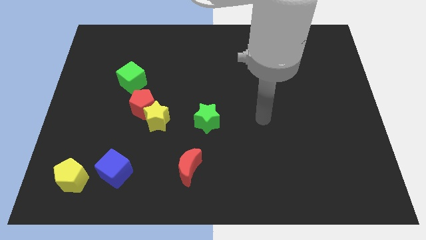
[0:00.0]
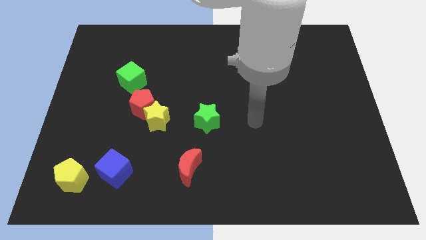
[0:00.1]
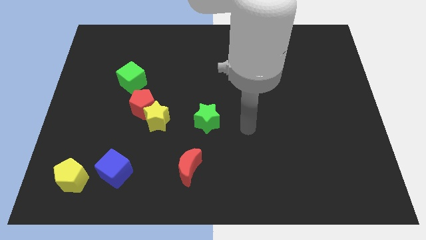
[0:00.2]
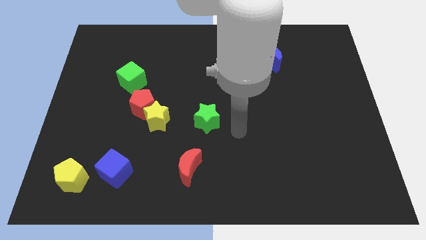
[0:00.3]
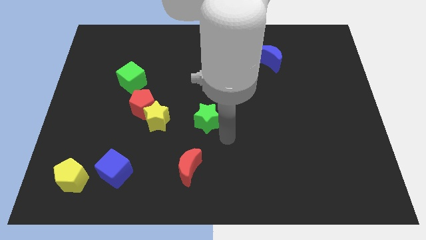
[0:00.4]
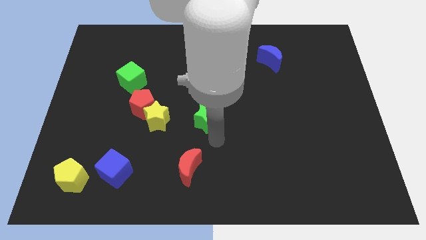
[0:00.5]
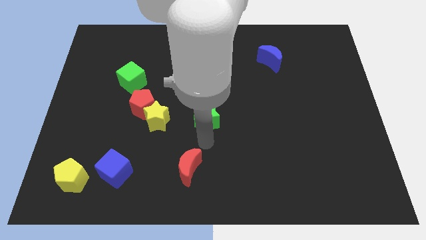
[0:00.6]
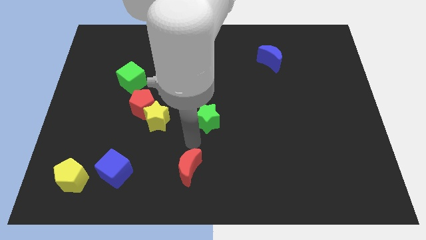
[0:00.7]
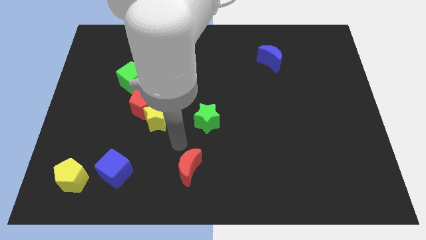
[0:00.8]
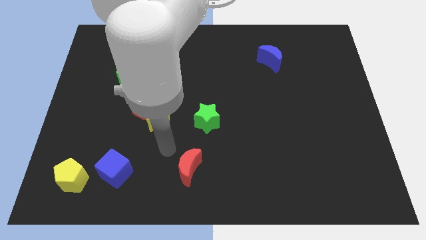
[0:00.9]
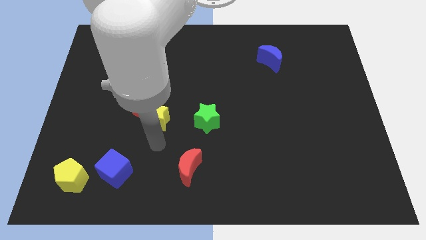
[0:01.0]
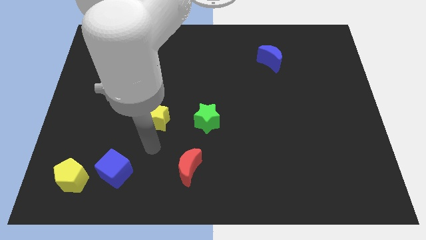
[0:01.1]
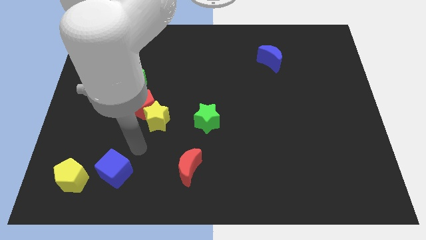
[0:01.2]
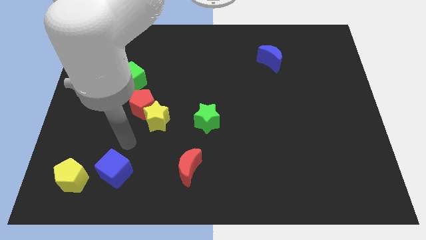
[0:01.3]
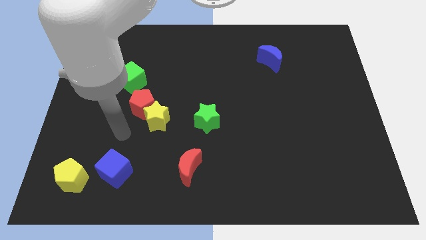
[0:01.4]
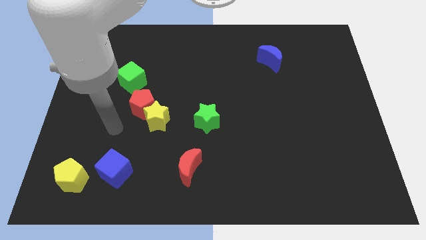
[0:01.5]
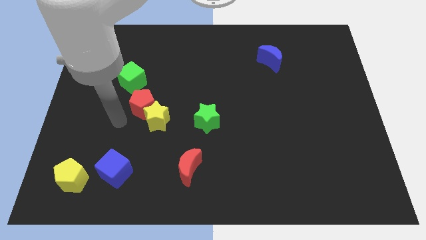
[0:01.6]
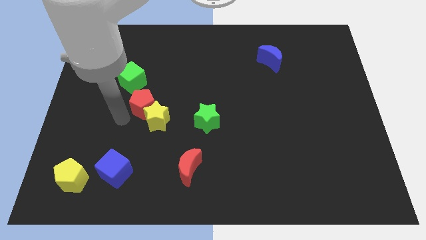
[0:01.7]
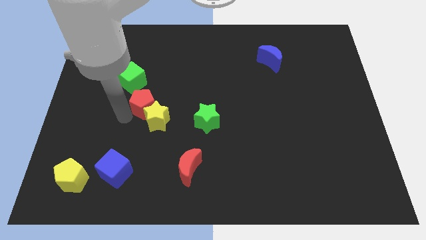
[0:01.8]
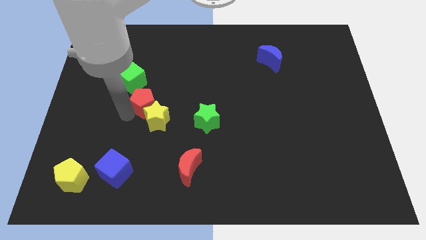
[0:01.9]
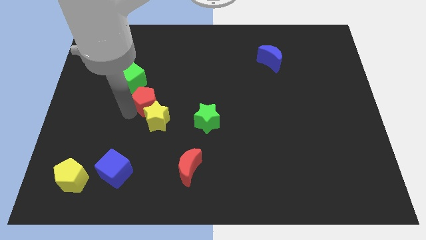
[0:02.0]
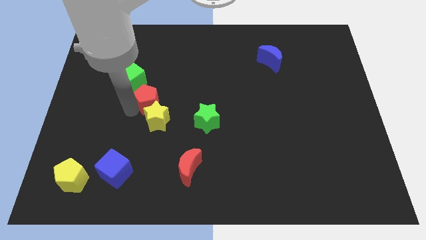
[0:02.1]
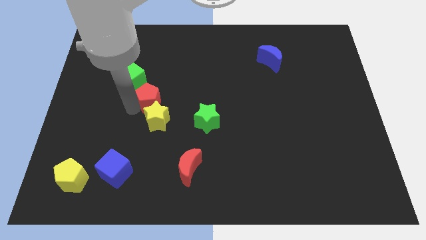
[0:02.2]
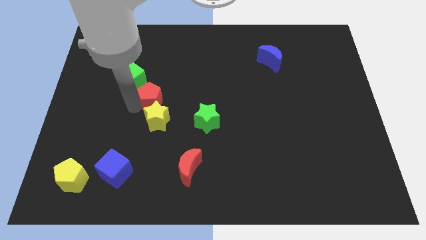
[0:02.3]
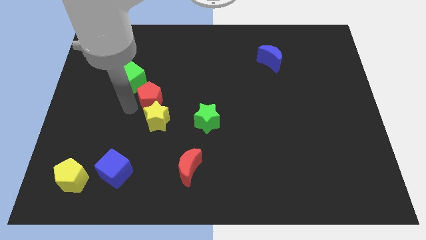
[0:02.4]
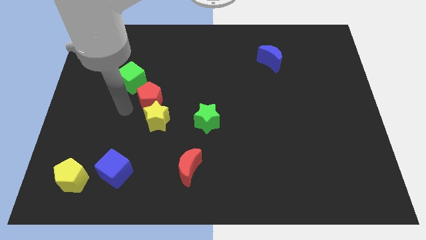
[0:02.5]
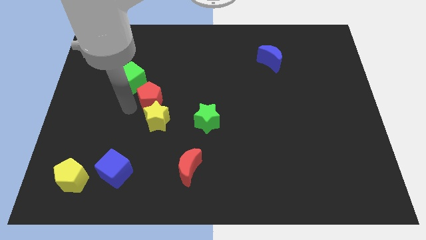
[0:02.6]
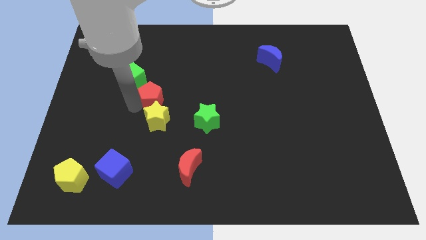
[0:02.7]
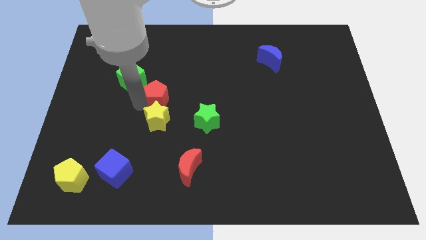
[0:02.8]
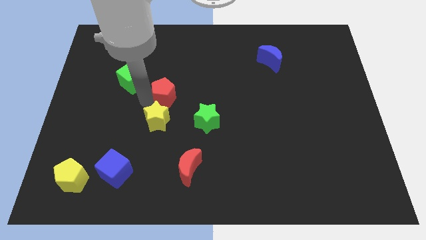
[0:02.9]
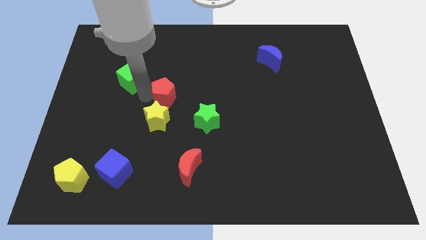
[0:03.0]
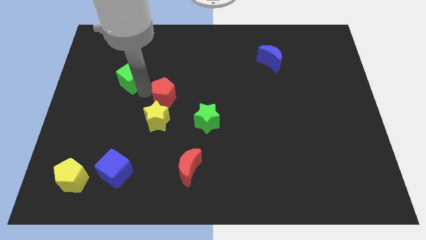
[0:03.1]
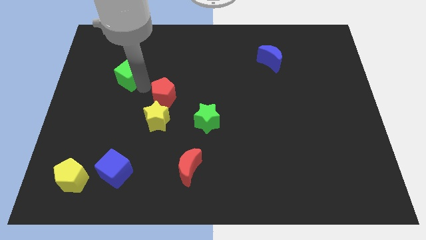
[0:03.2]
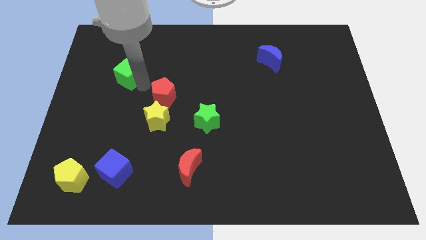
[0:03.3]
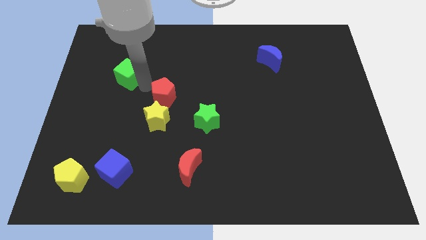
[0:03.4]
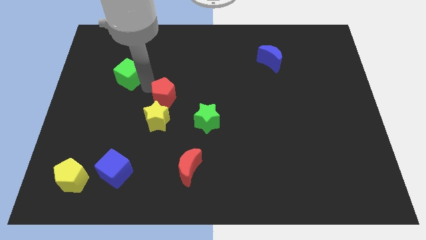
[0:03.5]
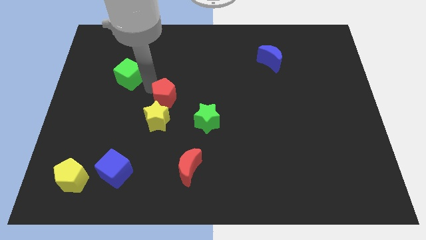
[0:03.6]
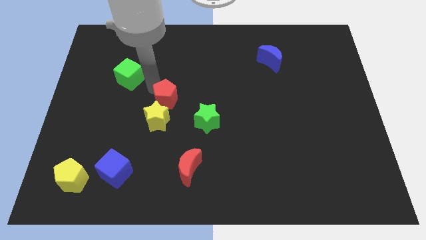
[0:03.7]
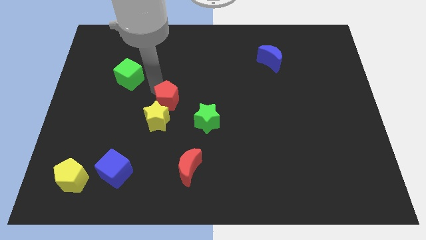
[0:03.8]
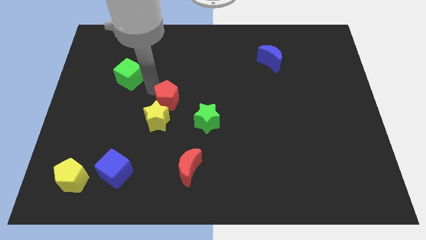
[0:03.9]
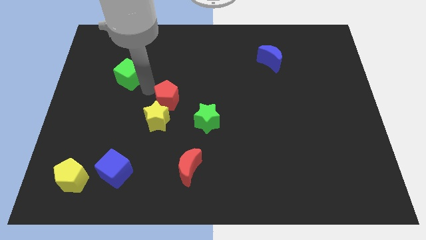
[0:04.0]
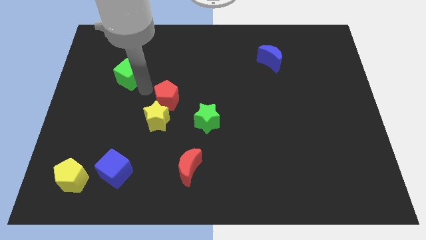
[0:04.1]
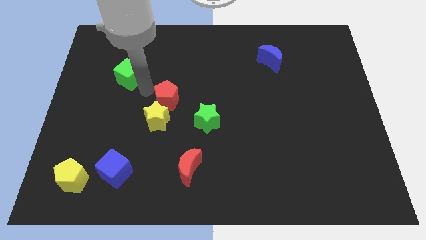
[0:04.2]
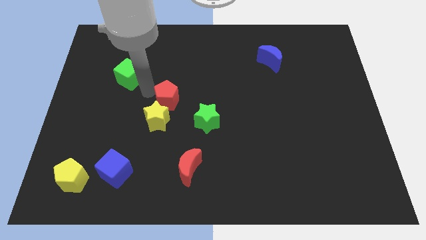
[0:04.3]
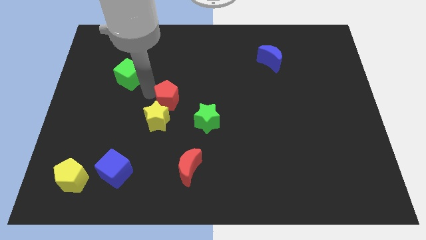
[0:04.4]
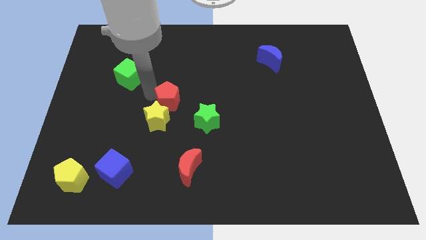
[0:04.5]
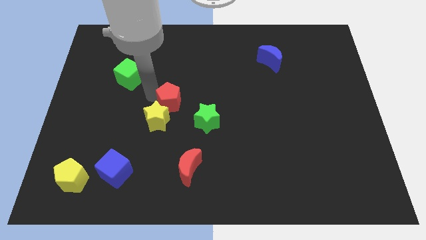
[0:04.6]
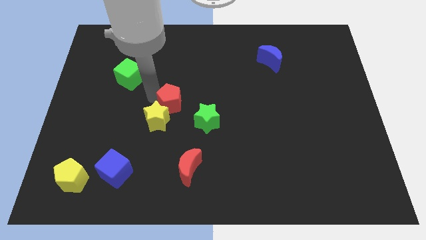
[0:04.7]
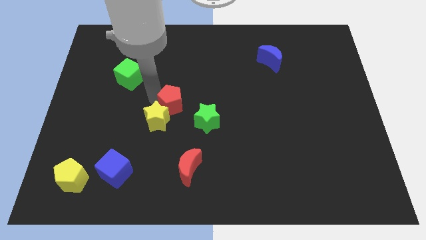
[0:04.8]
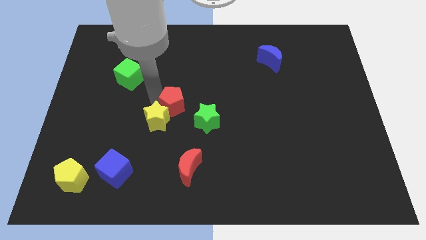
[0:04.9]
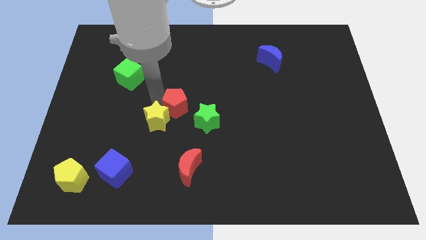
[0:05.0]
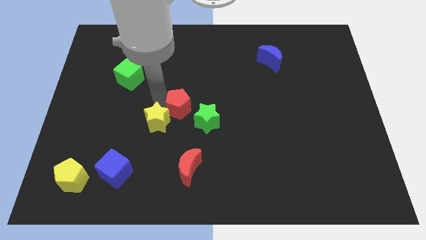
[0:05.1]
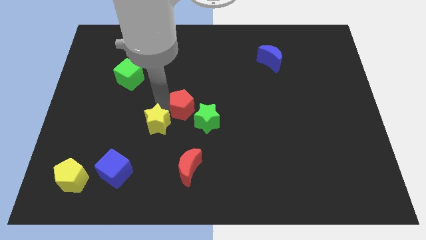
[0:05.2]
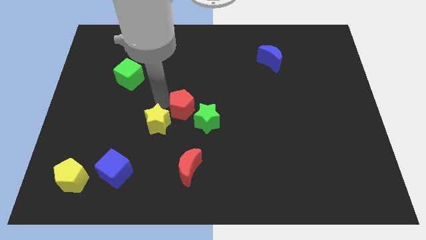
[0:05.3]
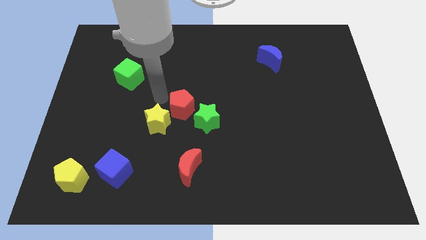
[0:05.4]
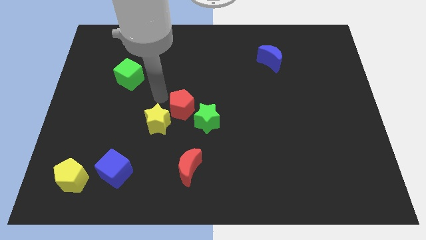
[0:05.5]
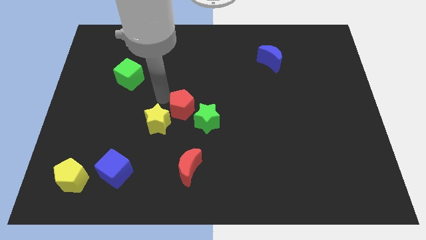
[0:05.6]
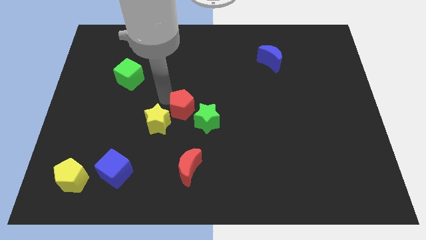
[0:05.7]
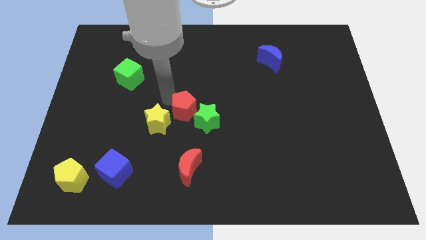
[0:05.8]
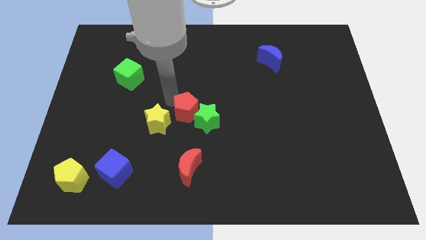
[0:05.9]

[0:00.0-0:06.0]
push the red pentagon to the green star

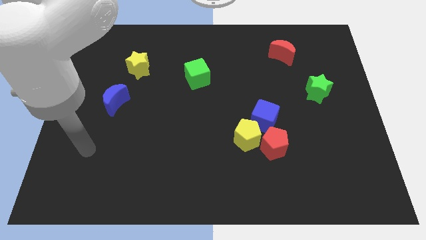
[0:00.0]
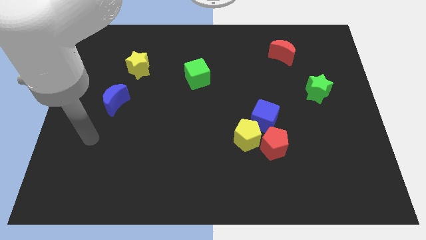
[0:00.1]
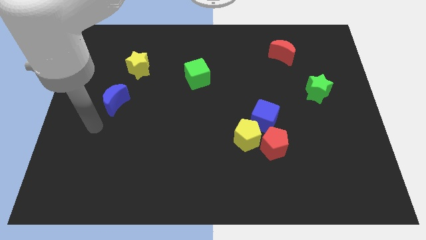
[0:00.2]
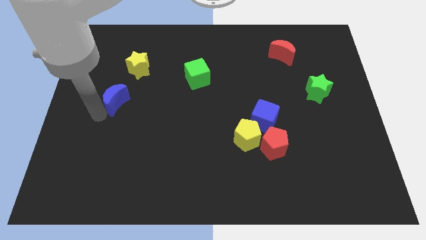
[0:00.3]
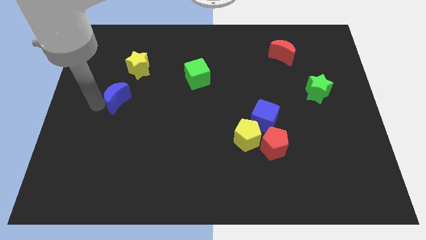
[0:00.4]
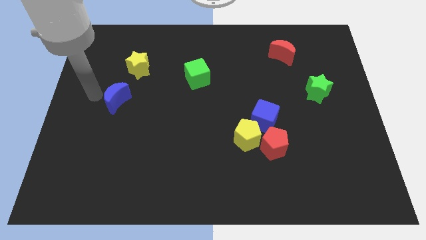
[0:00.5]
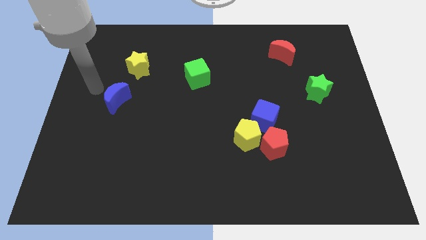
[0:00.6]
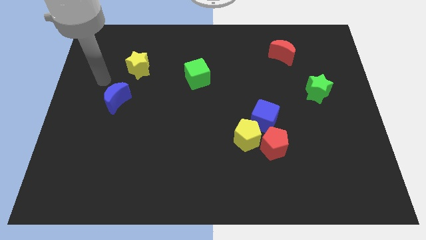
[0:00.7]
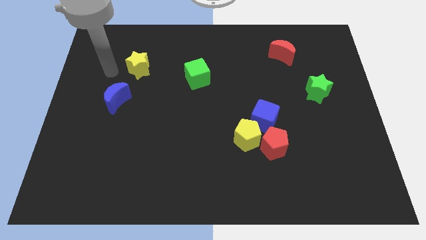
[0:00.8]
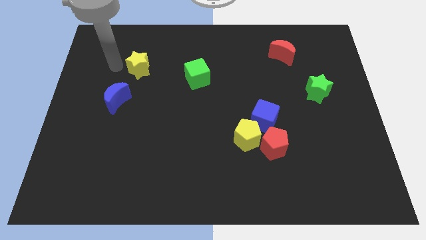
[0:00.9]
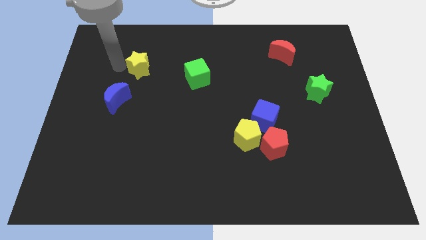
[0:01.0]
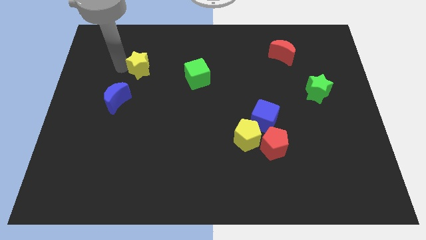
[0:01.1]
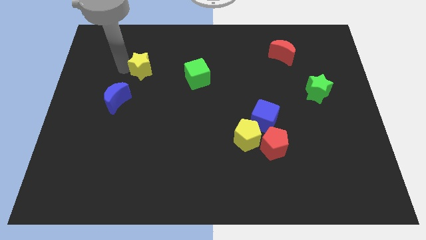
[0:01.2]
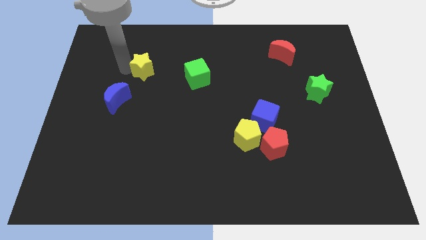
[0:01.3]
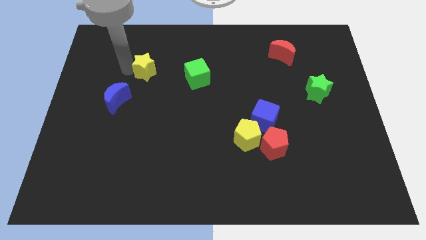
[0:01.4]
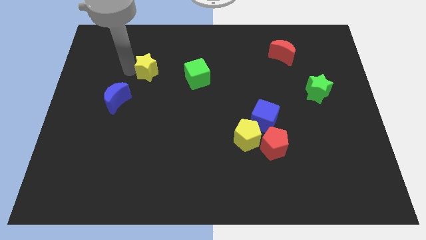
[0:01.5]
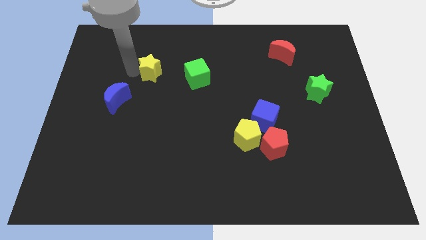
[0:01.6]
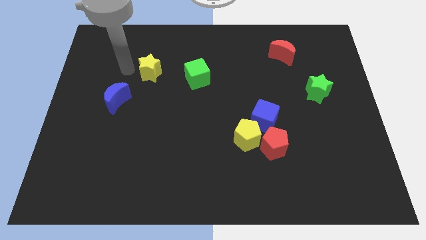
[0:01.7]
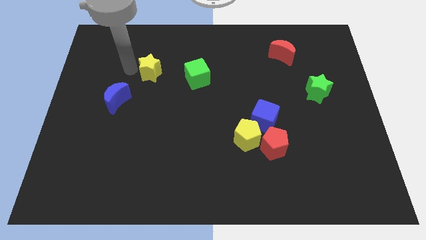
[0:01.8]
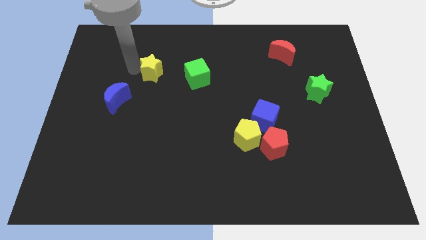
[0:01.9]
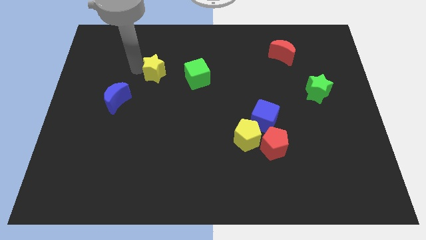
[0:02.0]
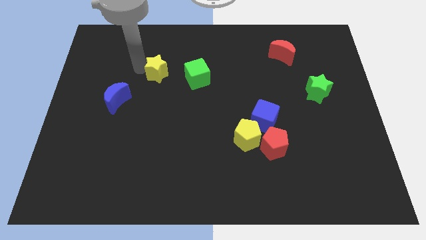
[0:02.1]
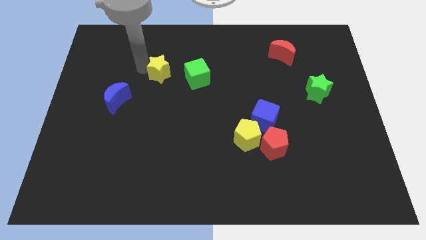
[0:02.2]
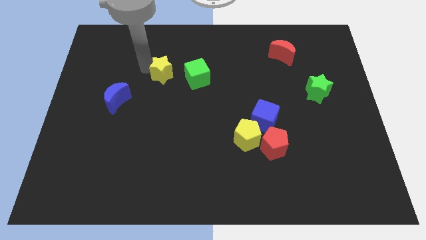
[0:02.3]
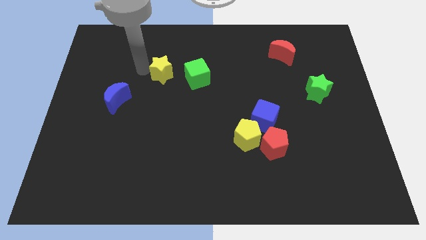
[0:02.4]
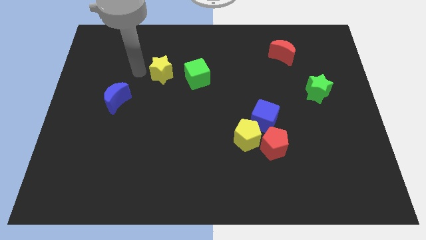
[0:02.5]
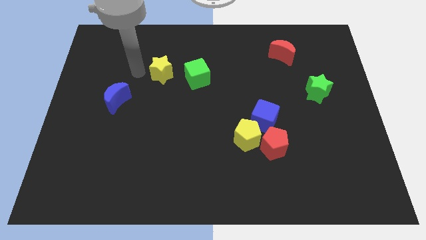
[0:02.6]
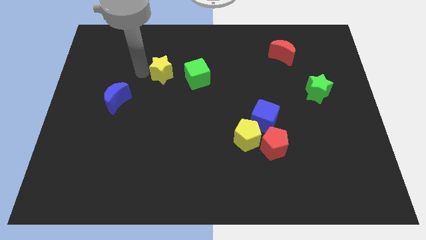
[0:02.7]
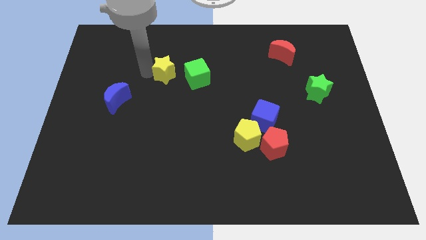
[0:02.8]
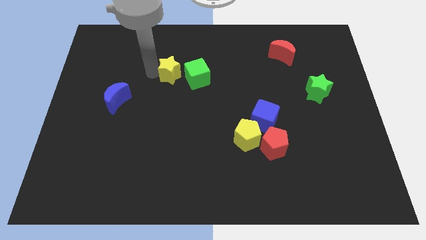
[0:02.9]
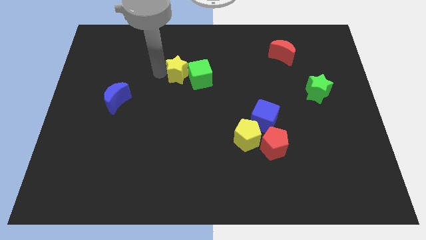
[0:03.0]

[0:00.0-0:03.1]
put the yellow star next to the green cube
